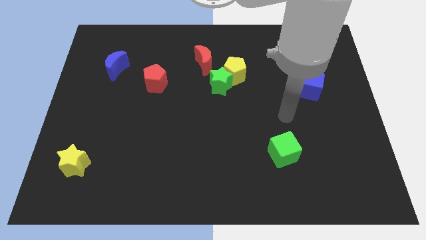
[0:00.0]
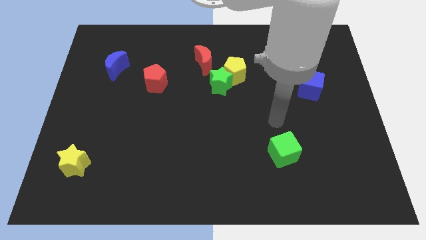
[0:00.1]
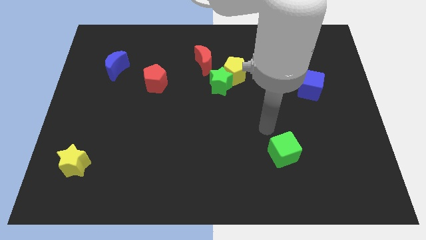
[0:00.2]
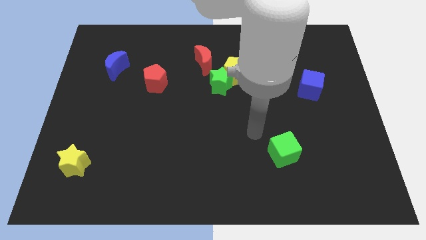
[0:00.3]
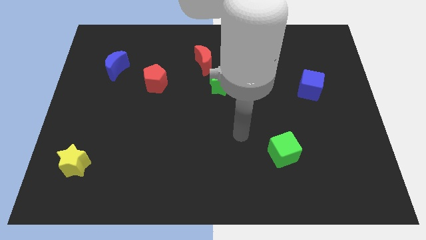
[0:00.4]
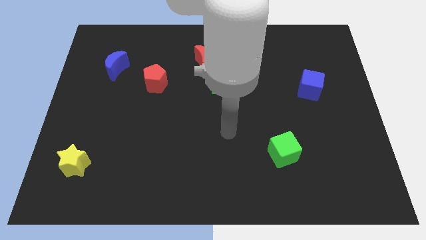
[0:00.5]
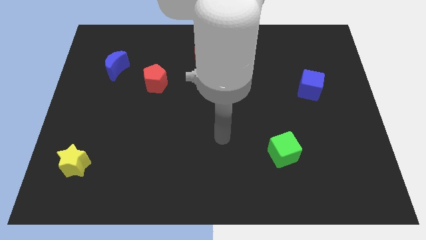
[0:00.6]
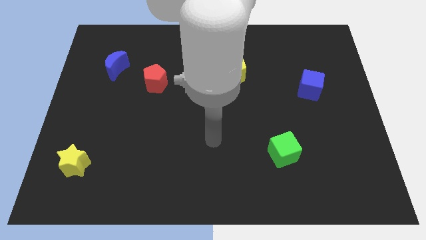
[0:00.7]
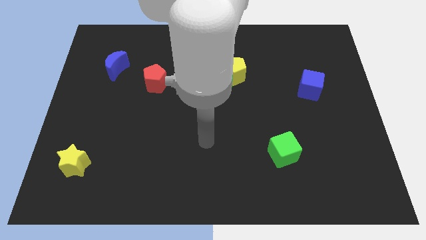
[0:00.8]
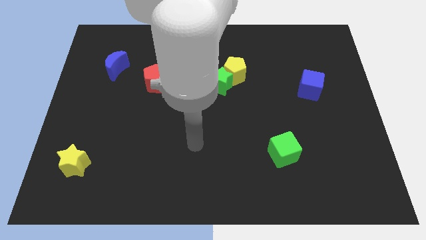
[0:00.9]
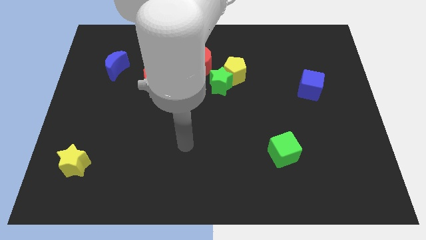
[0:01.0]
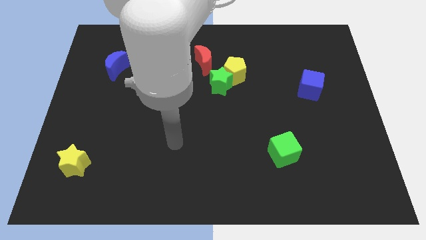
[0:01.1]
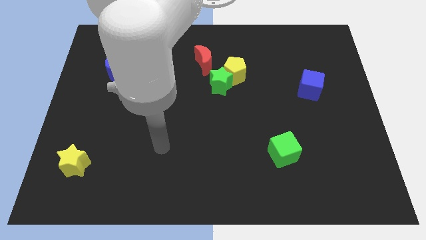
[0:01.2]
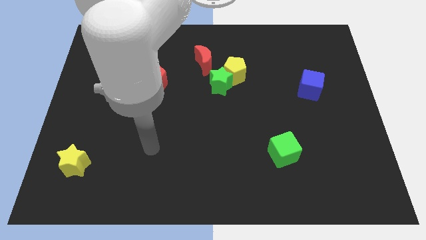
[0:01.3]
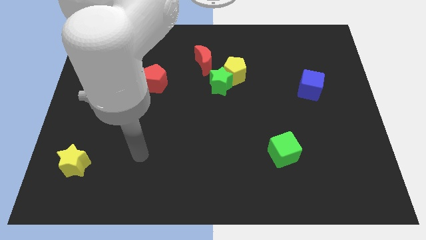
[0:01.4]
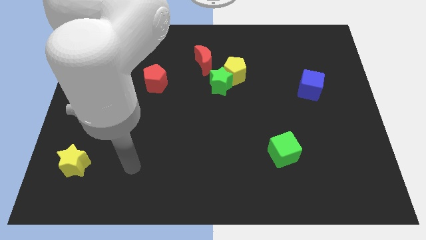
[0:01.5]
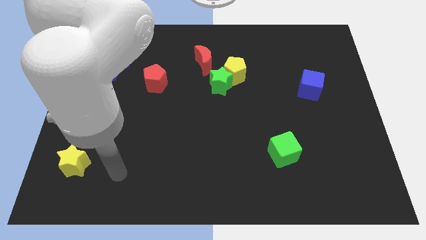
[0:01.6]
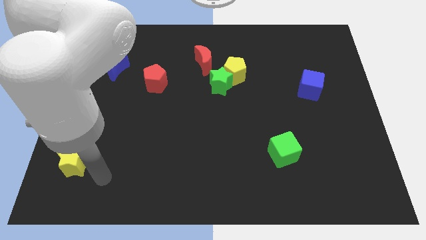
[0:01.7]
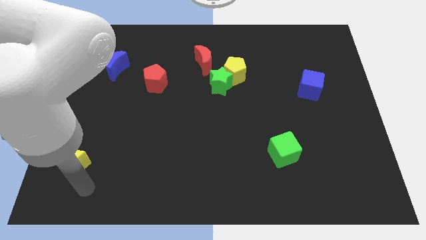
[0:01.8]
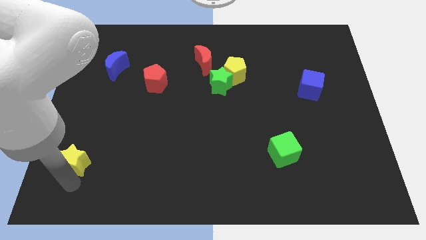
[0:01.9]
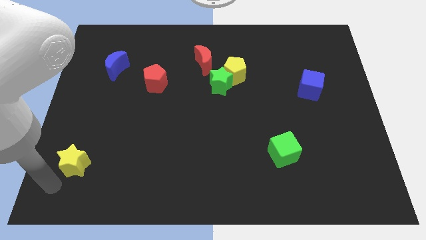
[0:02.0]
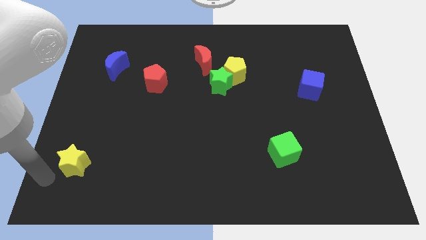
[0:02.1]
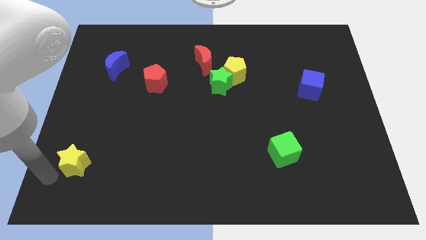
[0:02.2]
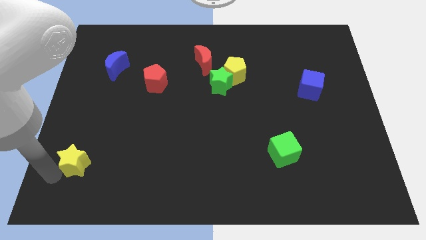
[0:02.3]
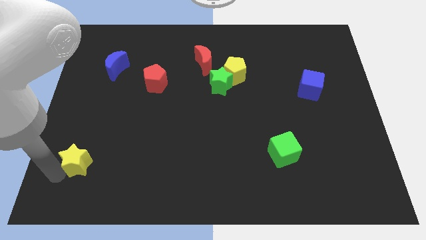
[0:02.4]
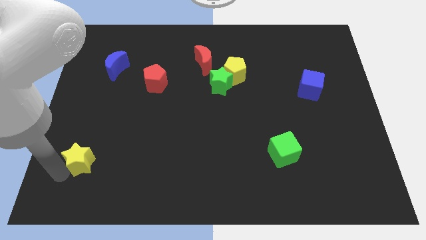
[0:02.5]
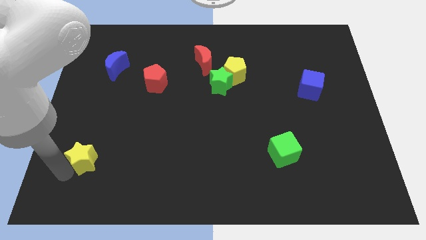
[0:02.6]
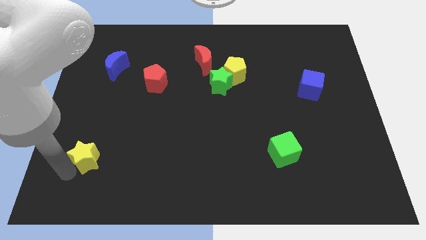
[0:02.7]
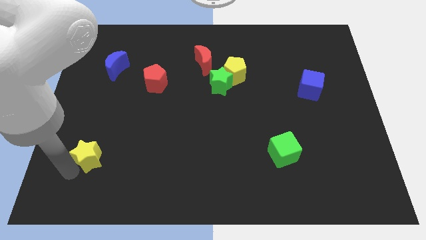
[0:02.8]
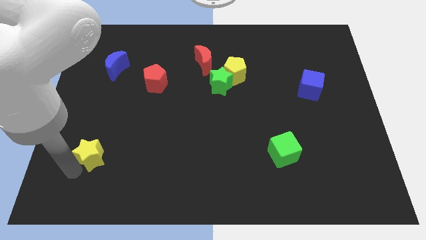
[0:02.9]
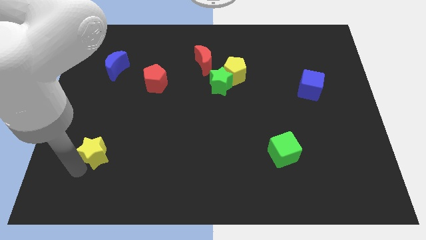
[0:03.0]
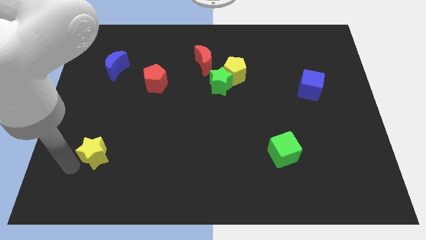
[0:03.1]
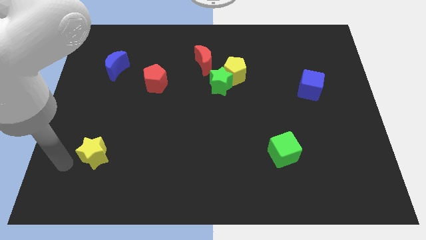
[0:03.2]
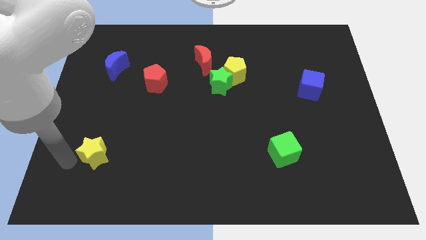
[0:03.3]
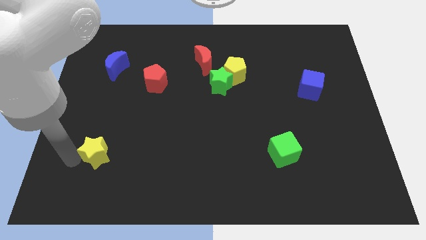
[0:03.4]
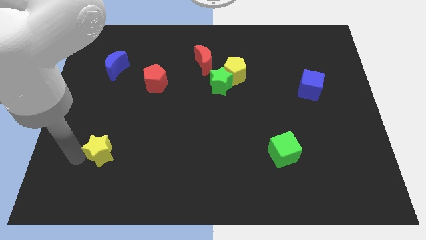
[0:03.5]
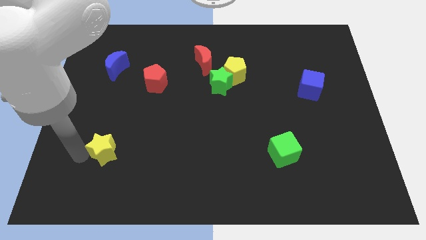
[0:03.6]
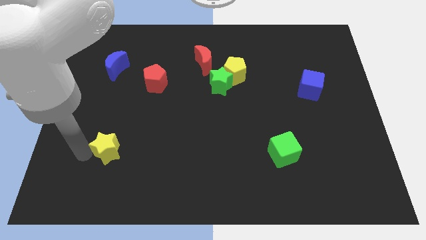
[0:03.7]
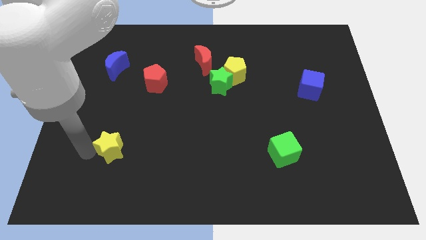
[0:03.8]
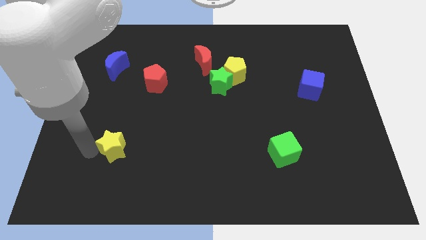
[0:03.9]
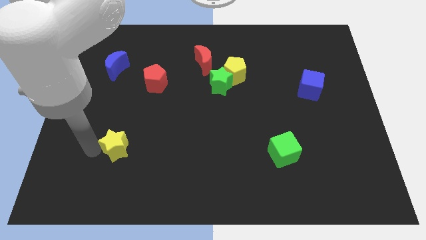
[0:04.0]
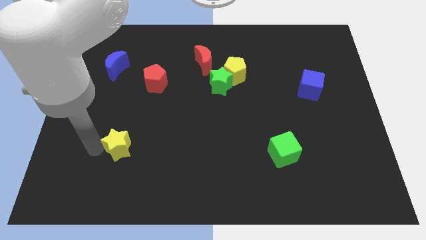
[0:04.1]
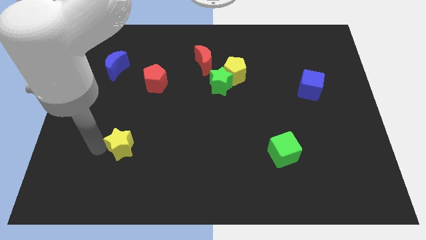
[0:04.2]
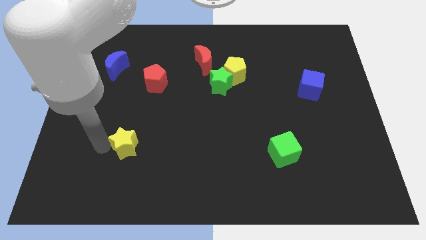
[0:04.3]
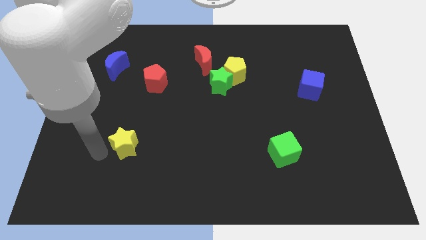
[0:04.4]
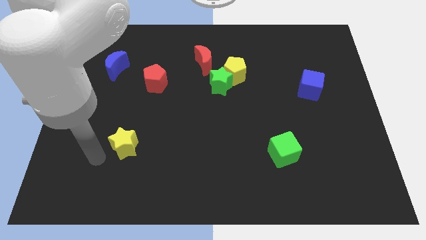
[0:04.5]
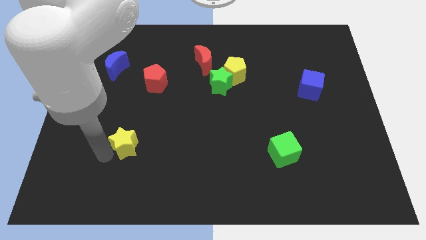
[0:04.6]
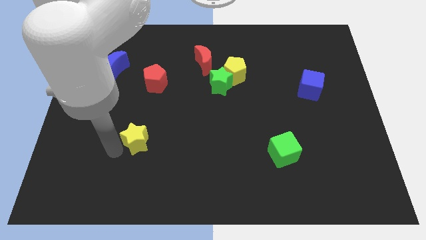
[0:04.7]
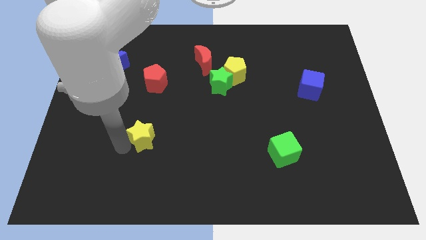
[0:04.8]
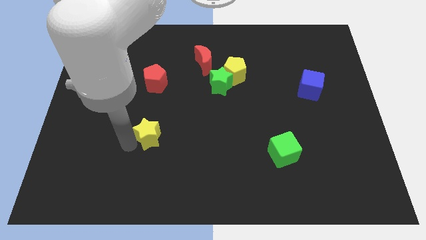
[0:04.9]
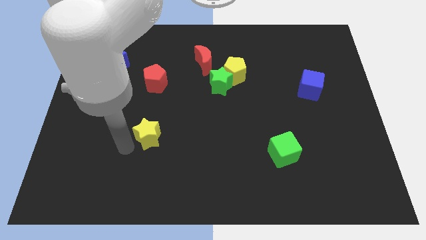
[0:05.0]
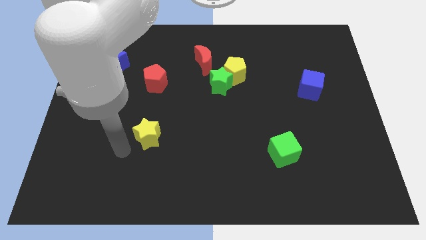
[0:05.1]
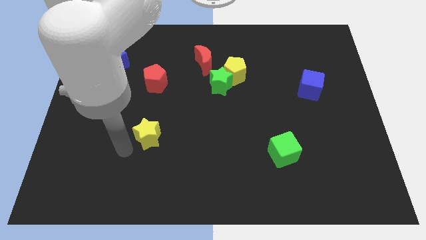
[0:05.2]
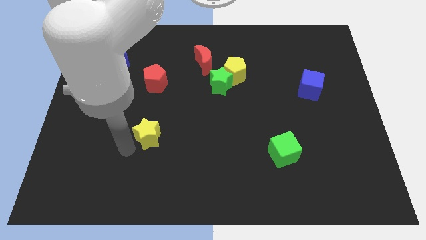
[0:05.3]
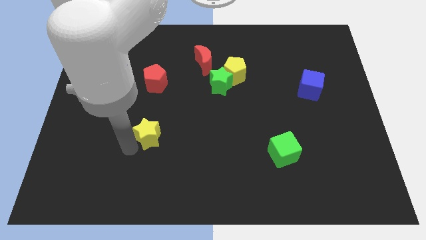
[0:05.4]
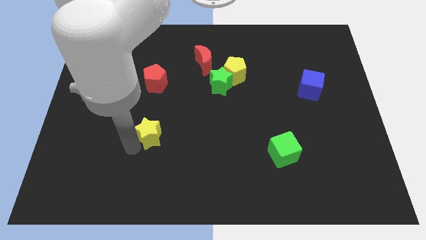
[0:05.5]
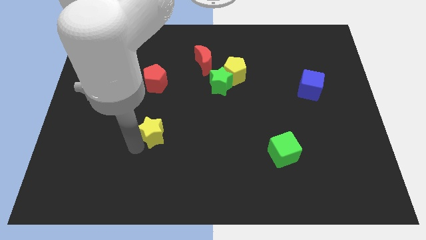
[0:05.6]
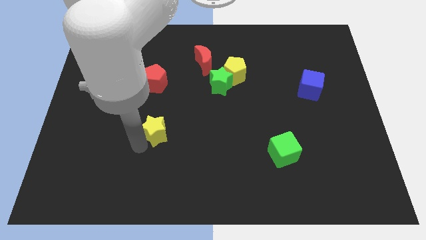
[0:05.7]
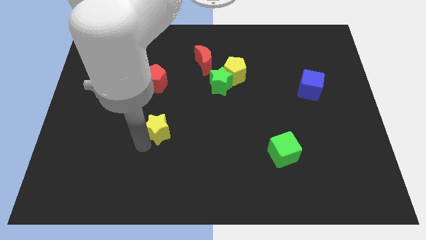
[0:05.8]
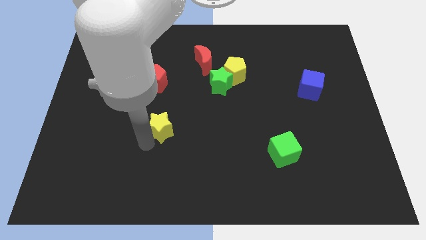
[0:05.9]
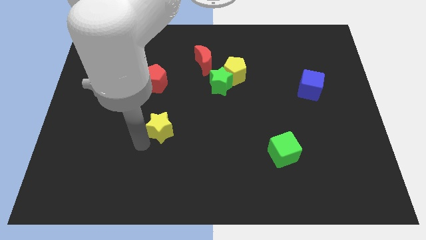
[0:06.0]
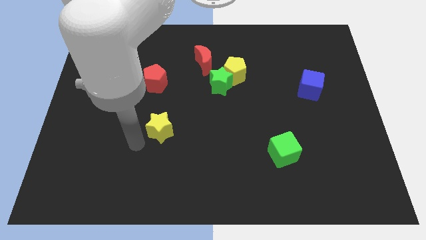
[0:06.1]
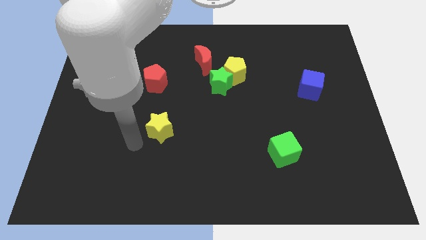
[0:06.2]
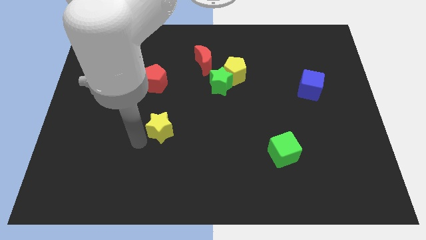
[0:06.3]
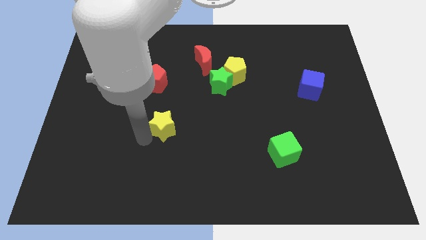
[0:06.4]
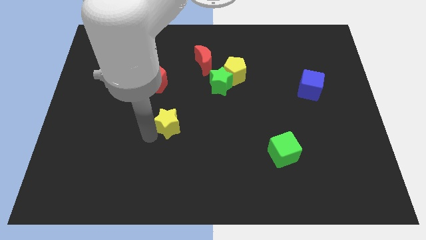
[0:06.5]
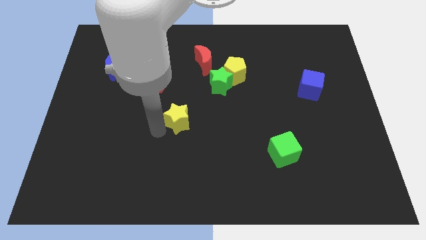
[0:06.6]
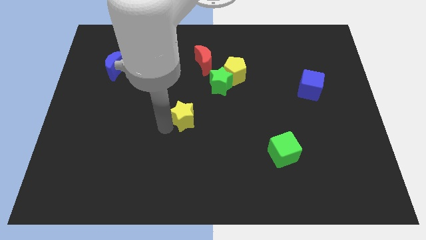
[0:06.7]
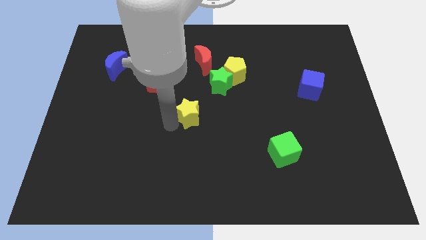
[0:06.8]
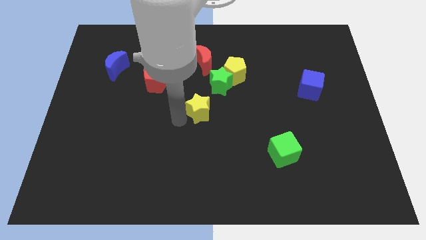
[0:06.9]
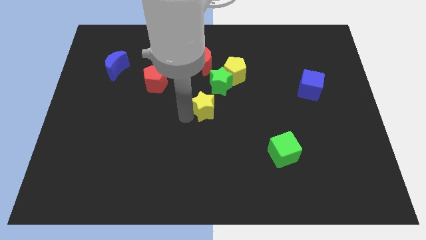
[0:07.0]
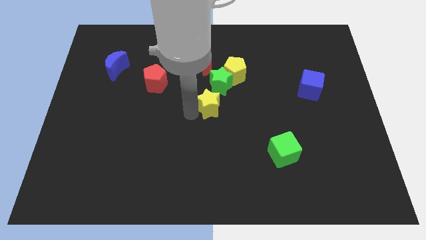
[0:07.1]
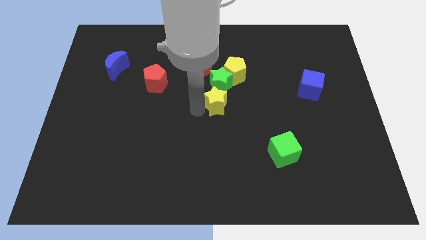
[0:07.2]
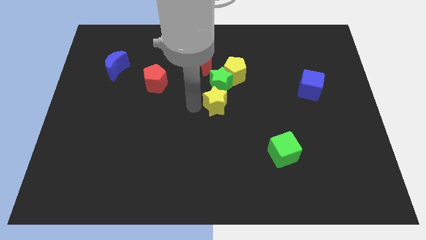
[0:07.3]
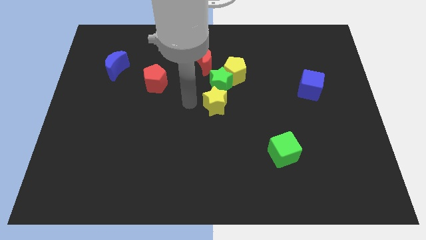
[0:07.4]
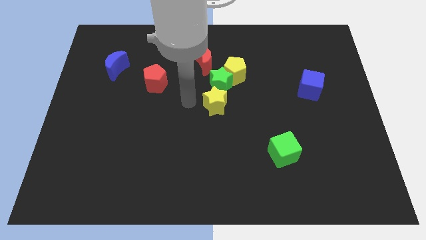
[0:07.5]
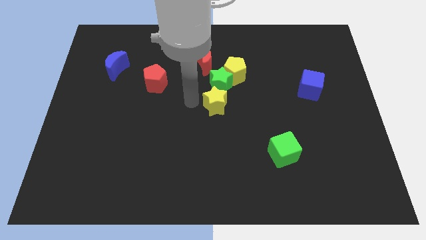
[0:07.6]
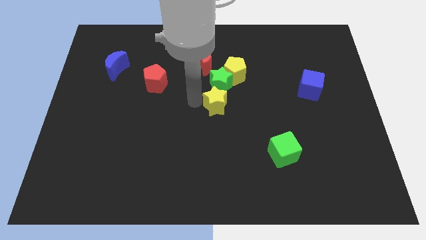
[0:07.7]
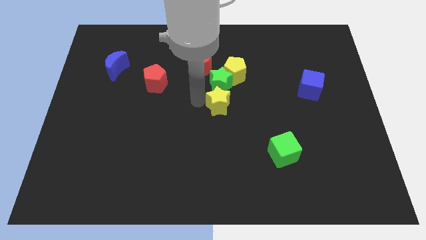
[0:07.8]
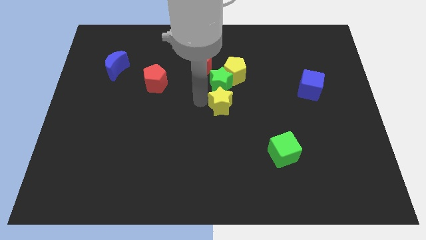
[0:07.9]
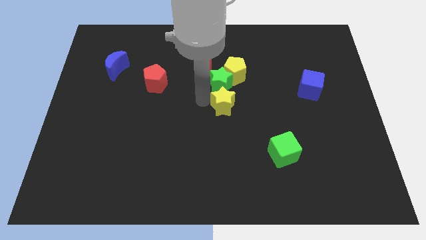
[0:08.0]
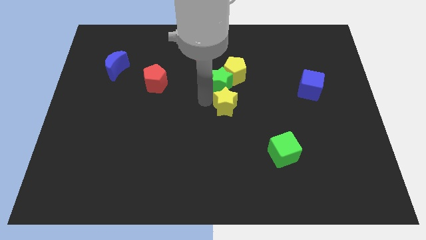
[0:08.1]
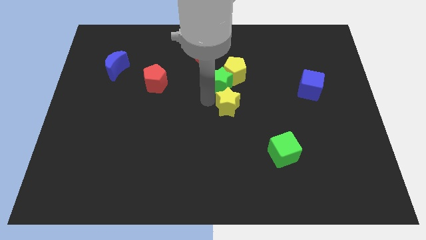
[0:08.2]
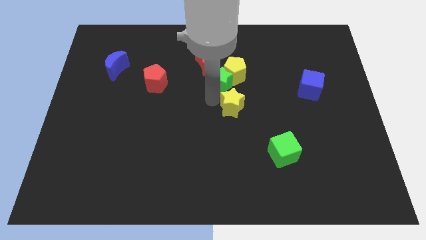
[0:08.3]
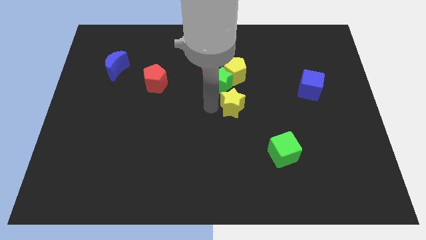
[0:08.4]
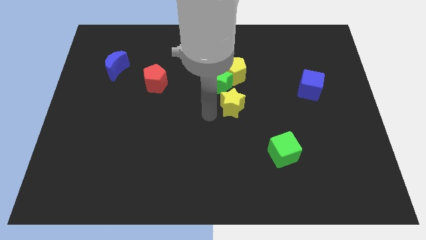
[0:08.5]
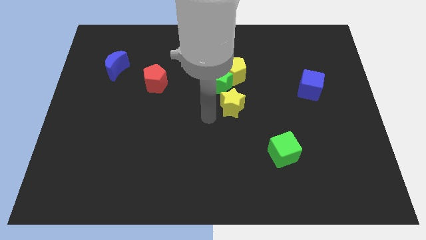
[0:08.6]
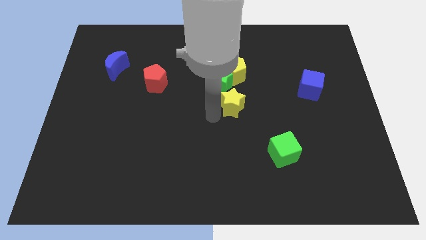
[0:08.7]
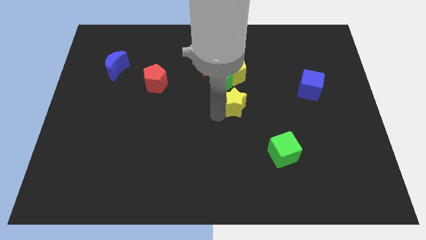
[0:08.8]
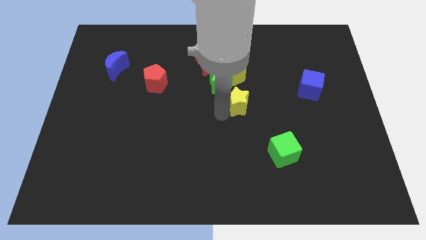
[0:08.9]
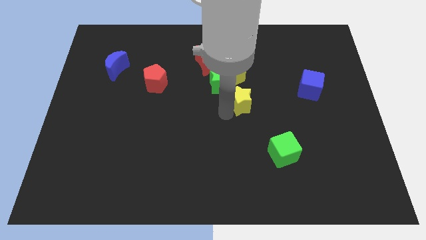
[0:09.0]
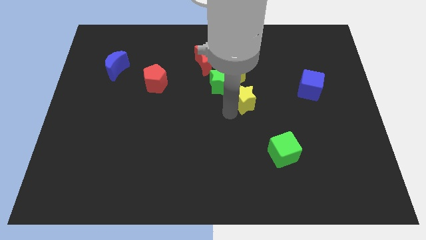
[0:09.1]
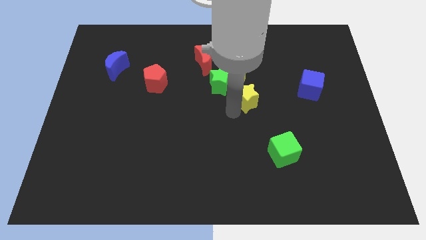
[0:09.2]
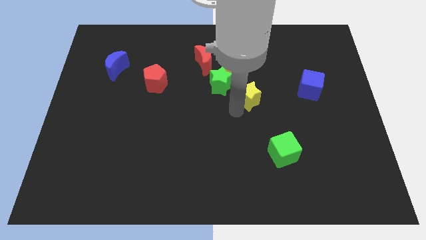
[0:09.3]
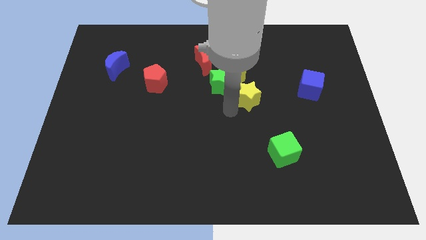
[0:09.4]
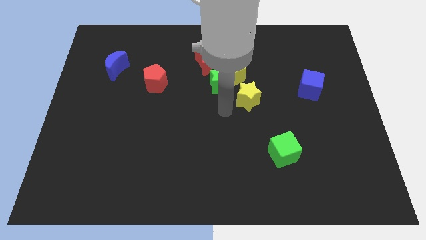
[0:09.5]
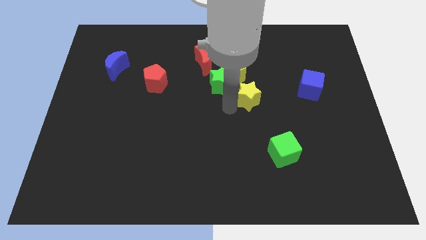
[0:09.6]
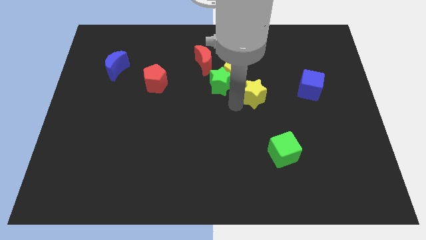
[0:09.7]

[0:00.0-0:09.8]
push the yellow star just left of the blue cube
